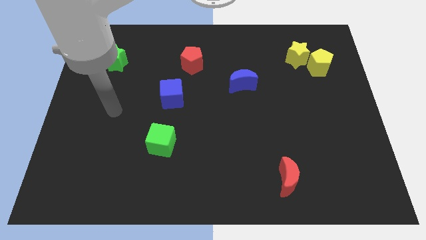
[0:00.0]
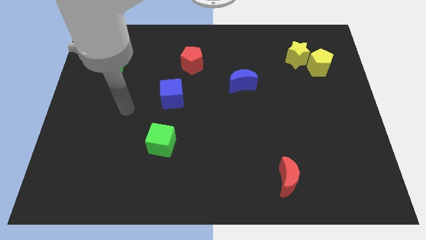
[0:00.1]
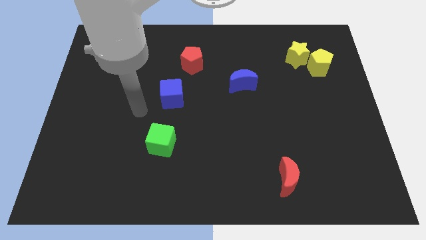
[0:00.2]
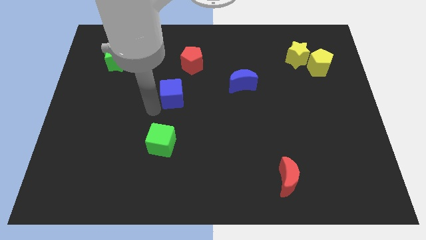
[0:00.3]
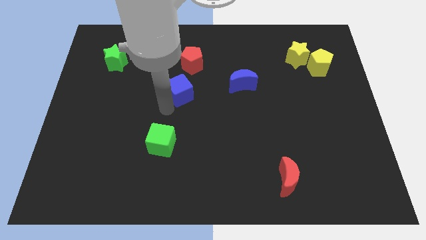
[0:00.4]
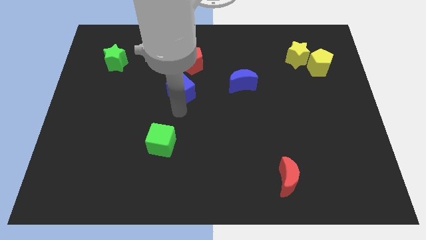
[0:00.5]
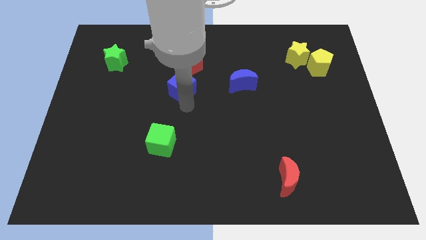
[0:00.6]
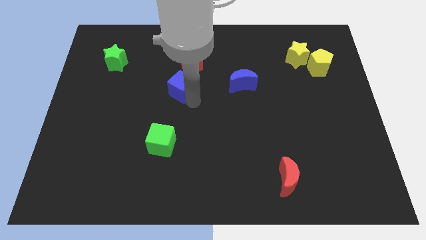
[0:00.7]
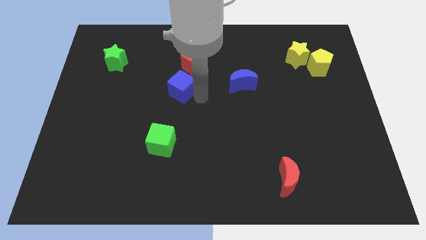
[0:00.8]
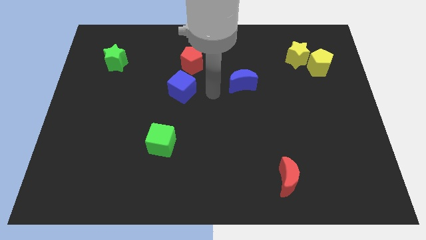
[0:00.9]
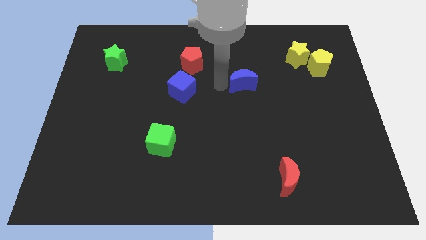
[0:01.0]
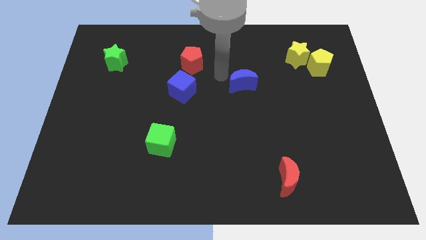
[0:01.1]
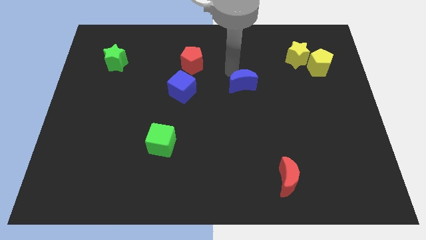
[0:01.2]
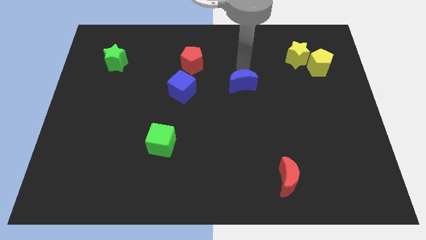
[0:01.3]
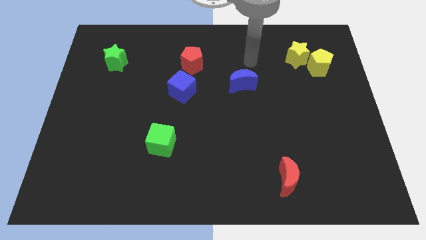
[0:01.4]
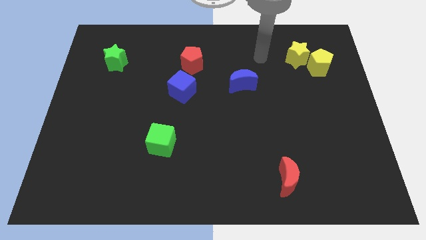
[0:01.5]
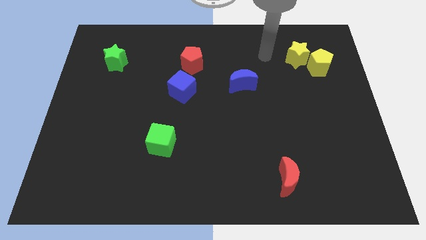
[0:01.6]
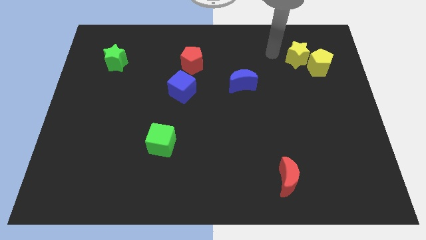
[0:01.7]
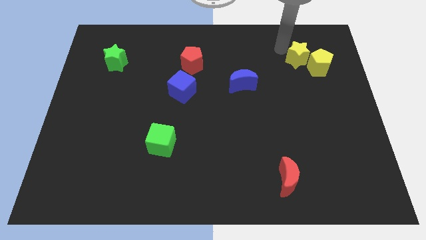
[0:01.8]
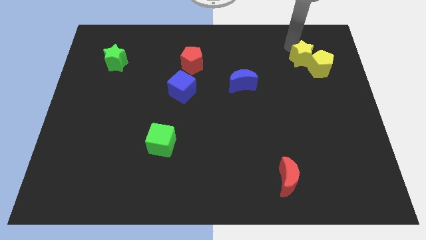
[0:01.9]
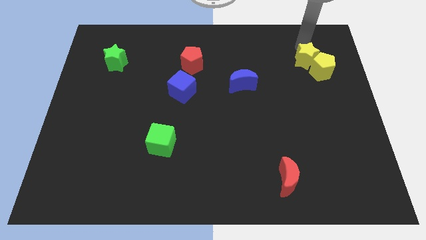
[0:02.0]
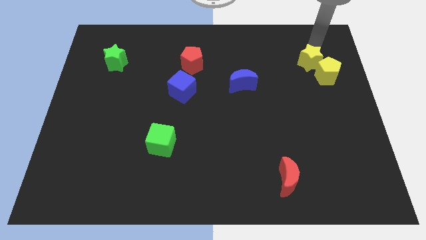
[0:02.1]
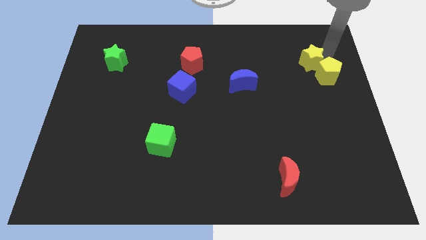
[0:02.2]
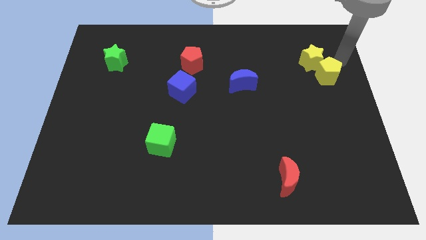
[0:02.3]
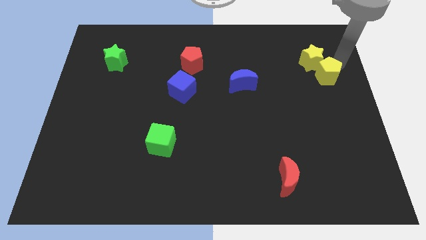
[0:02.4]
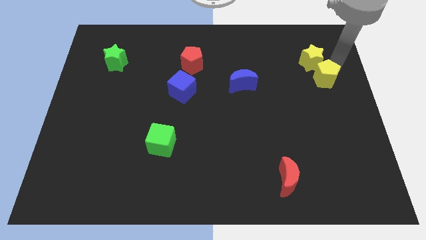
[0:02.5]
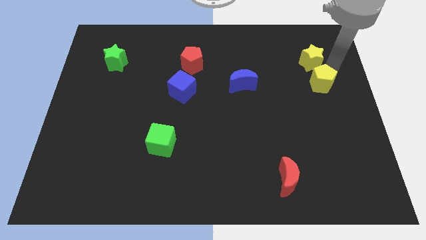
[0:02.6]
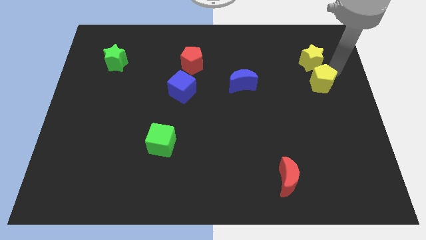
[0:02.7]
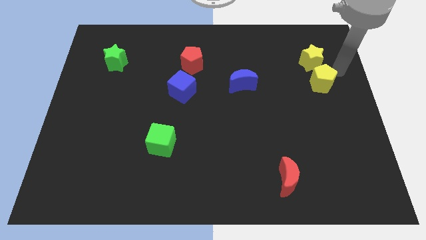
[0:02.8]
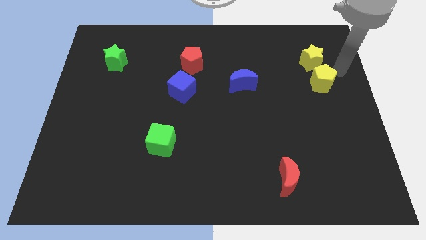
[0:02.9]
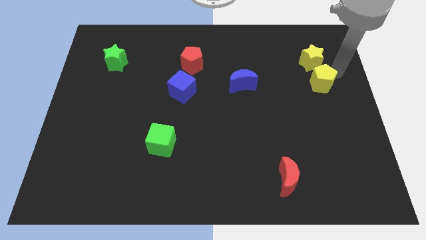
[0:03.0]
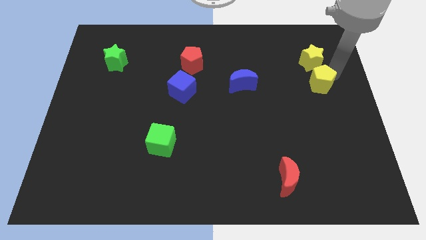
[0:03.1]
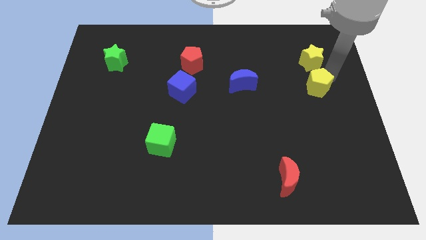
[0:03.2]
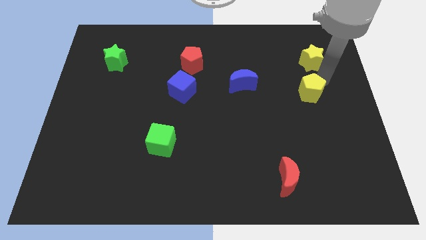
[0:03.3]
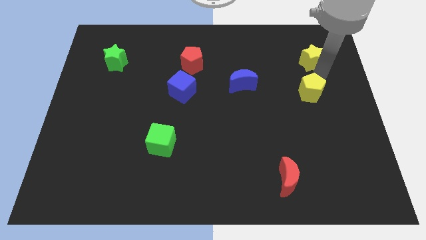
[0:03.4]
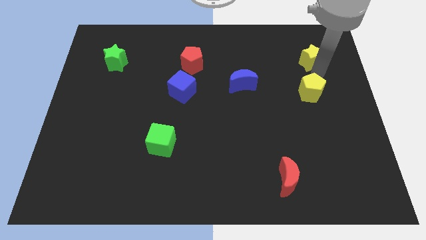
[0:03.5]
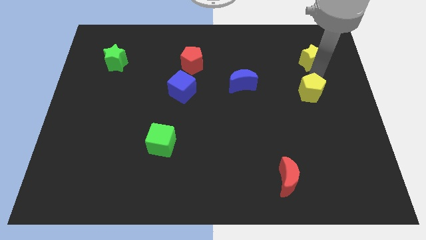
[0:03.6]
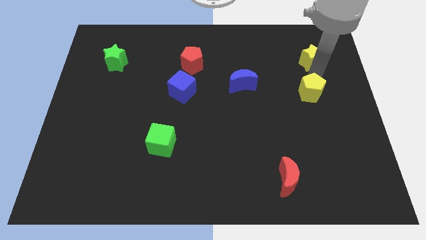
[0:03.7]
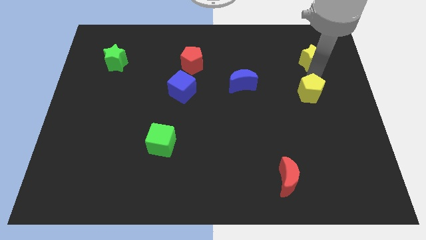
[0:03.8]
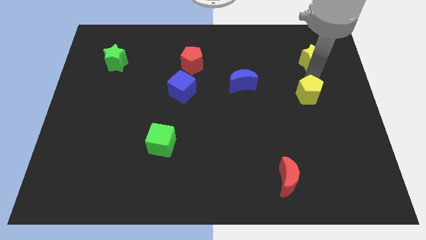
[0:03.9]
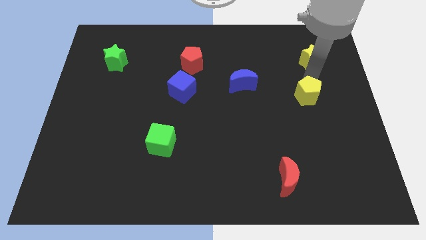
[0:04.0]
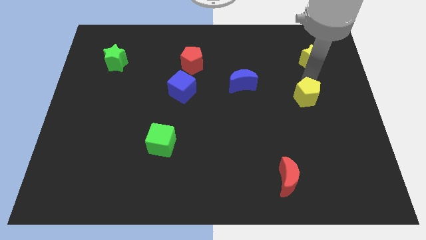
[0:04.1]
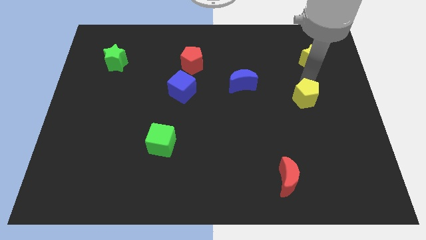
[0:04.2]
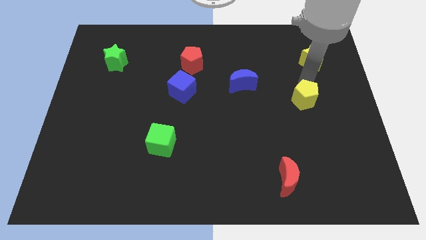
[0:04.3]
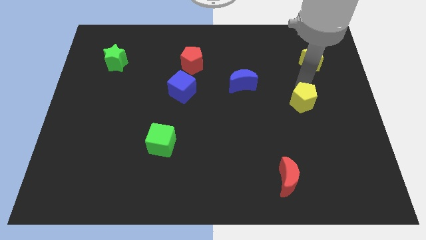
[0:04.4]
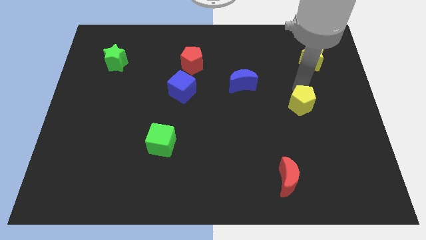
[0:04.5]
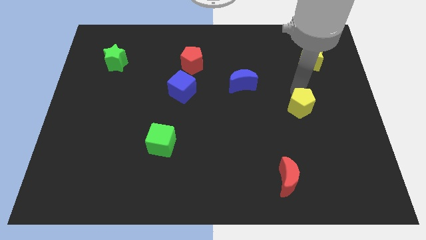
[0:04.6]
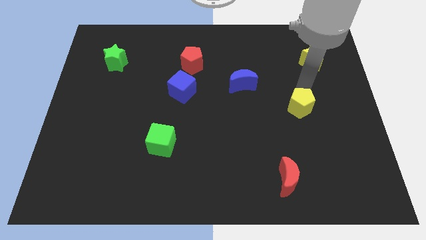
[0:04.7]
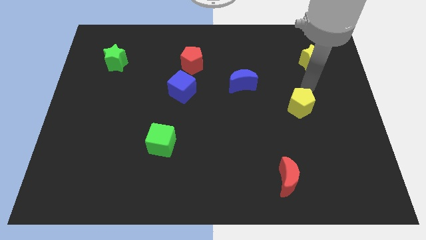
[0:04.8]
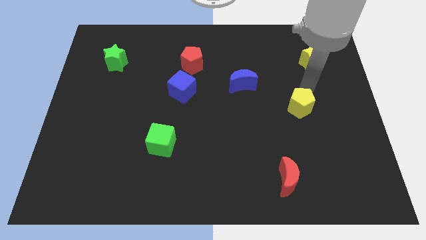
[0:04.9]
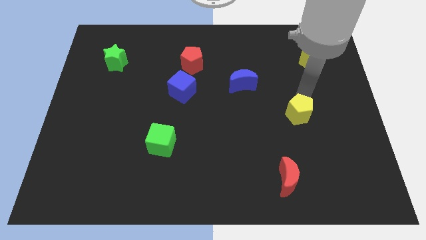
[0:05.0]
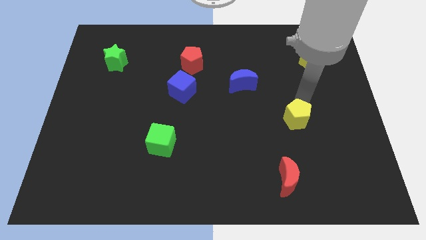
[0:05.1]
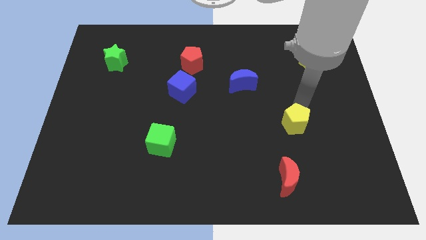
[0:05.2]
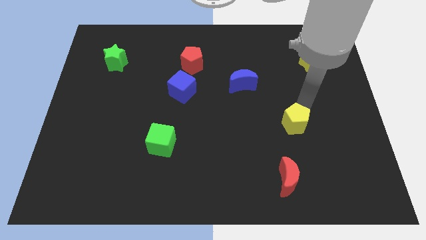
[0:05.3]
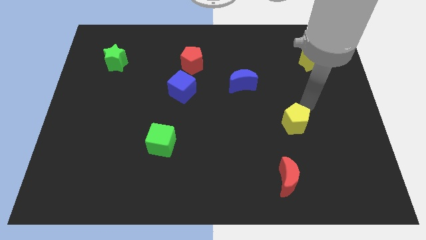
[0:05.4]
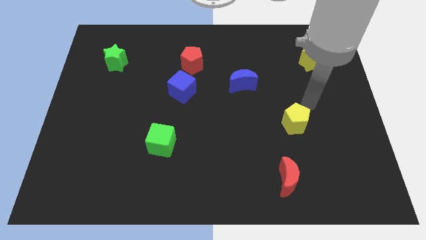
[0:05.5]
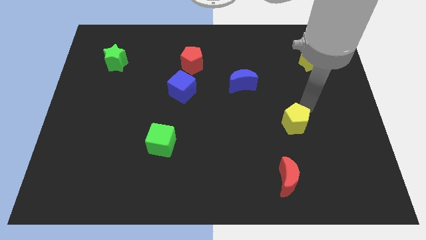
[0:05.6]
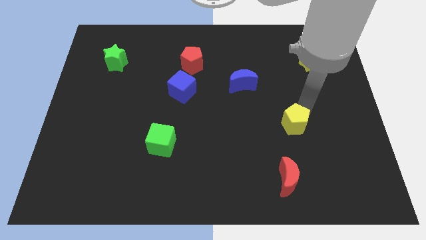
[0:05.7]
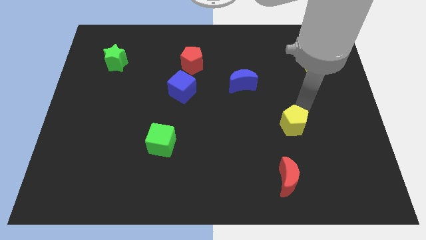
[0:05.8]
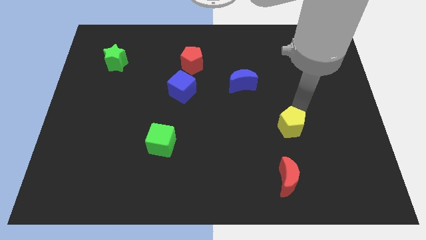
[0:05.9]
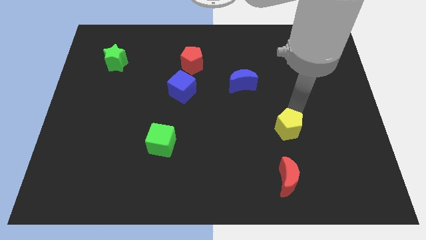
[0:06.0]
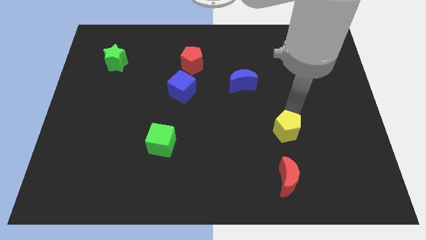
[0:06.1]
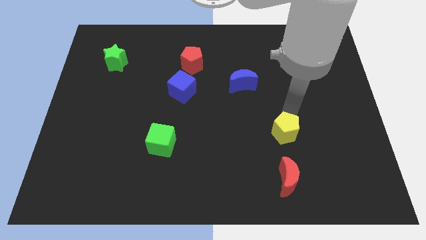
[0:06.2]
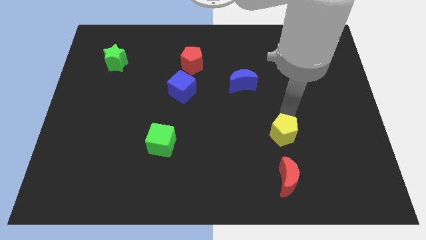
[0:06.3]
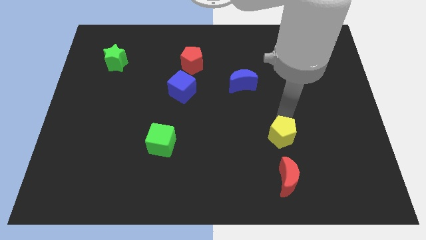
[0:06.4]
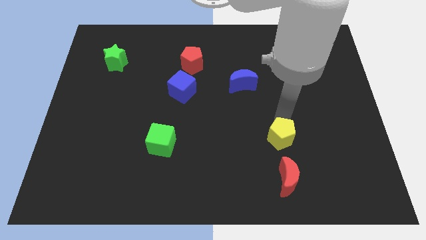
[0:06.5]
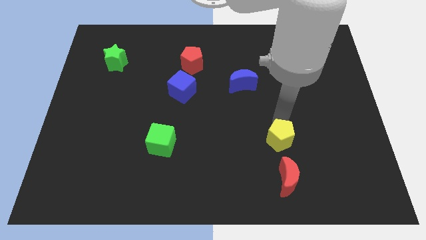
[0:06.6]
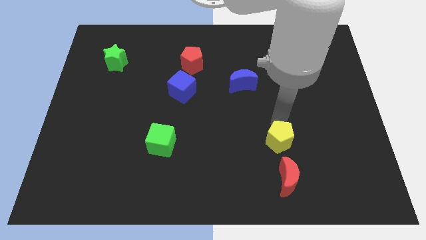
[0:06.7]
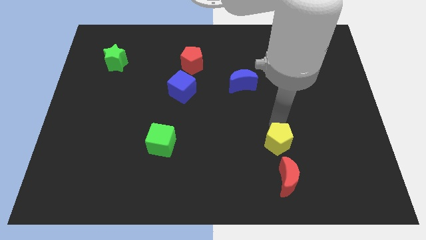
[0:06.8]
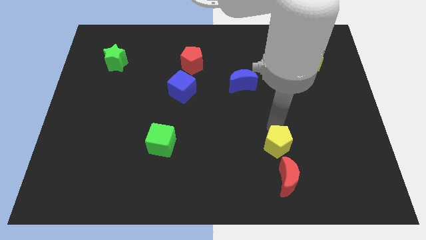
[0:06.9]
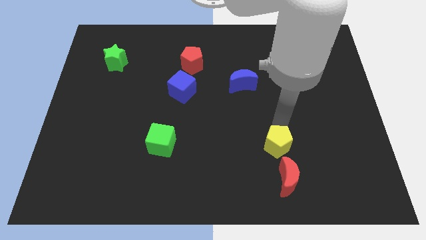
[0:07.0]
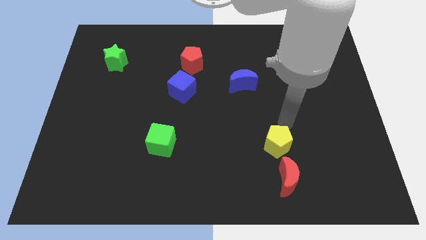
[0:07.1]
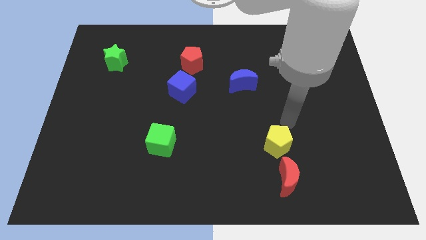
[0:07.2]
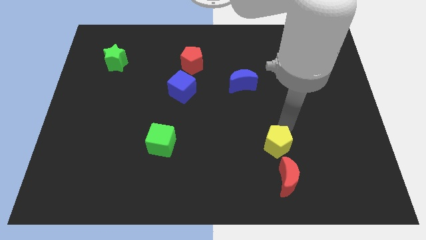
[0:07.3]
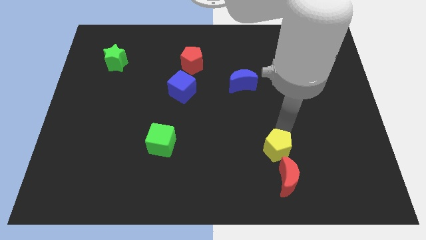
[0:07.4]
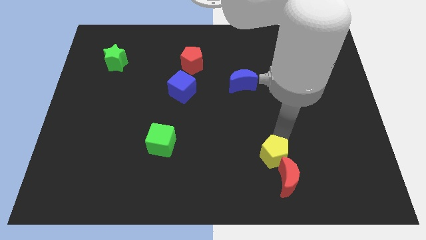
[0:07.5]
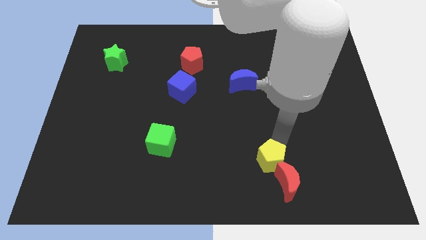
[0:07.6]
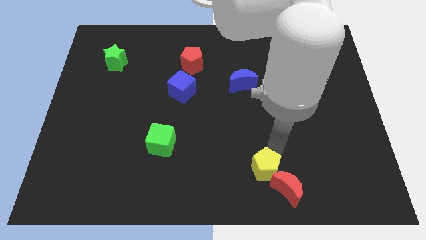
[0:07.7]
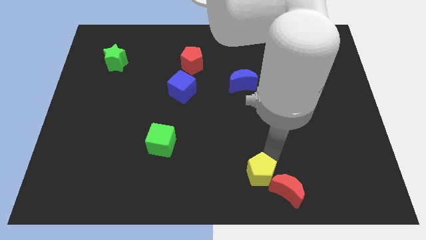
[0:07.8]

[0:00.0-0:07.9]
slide the yellow pentagon to the bottom side
